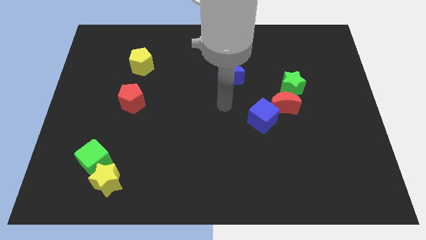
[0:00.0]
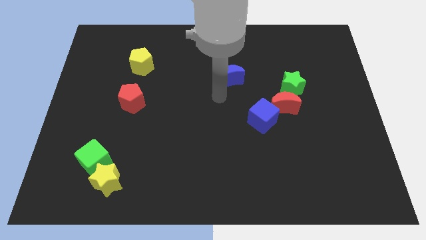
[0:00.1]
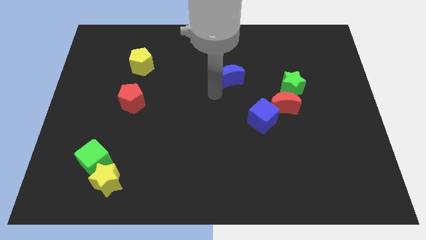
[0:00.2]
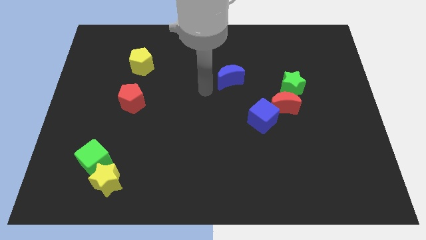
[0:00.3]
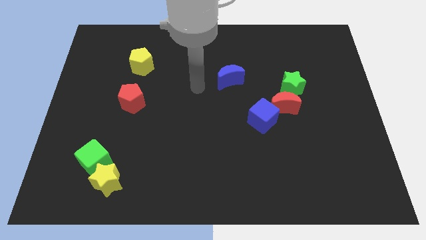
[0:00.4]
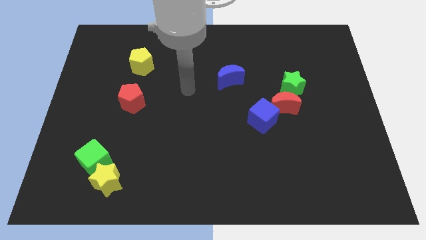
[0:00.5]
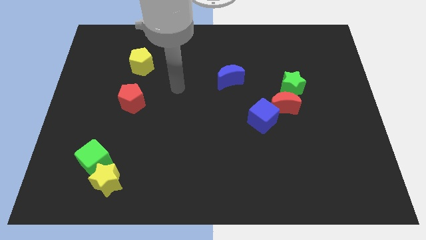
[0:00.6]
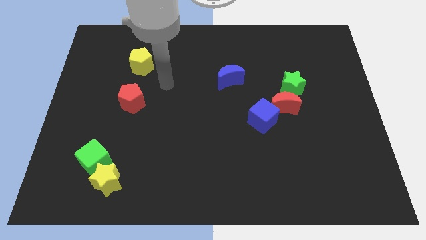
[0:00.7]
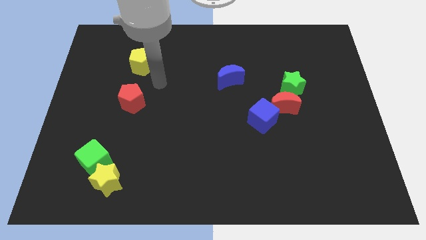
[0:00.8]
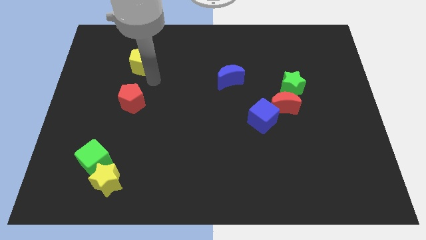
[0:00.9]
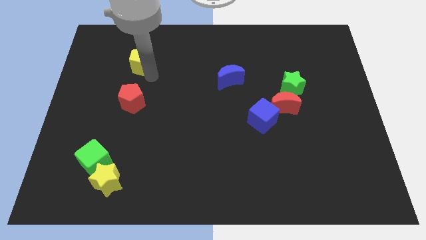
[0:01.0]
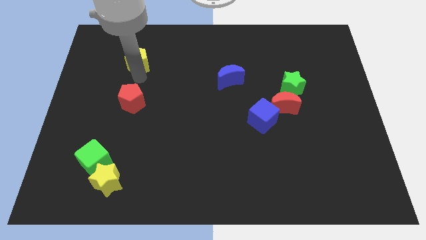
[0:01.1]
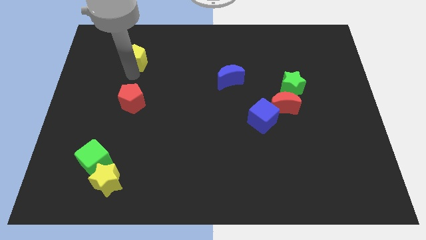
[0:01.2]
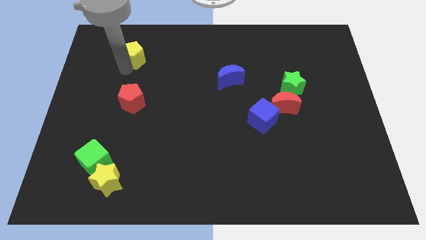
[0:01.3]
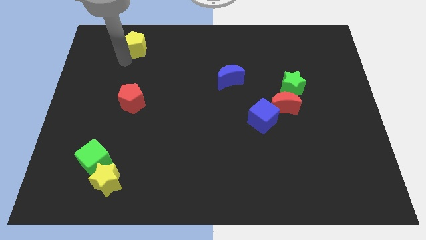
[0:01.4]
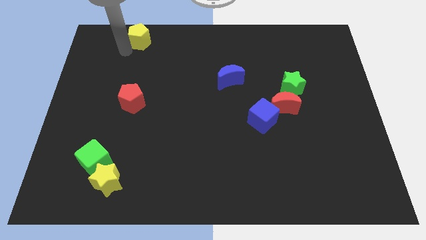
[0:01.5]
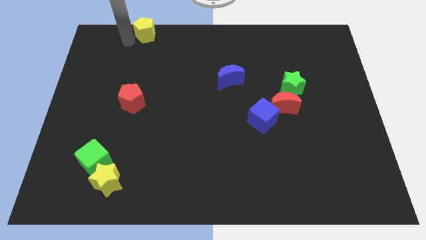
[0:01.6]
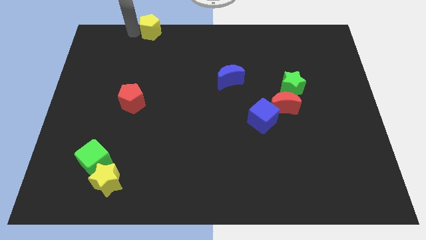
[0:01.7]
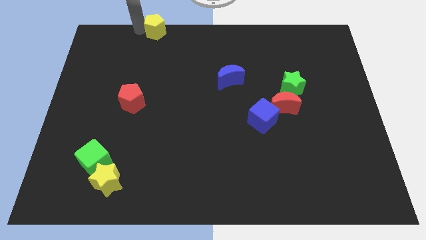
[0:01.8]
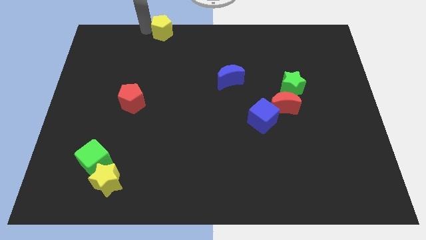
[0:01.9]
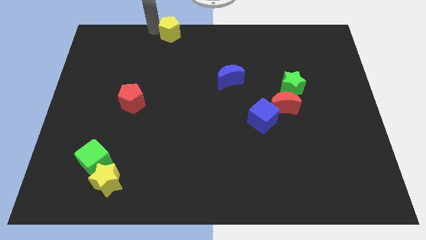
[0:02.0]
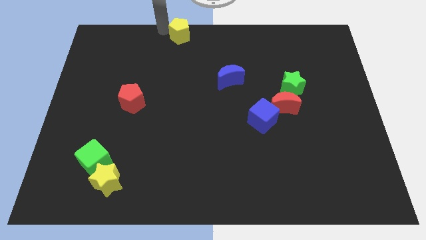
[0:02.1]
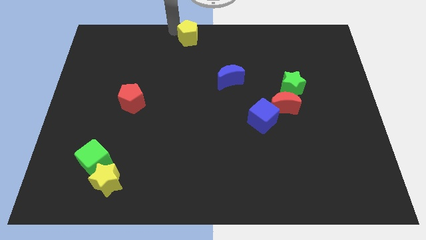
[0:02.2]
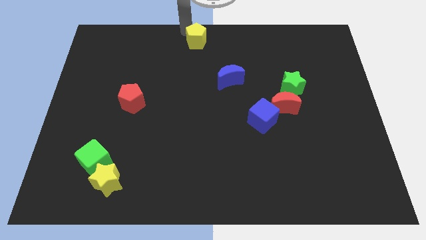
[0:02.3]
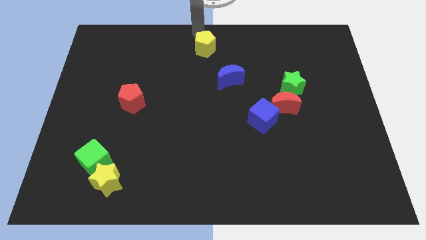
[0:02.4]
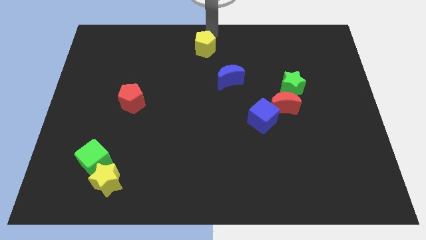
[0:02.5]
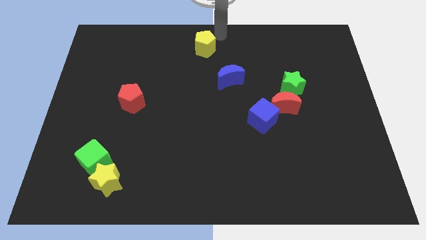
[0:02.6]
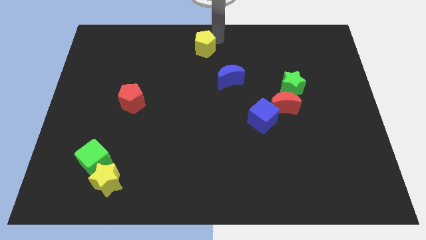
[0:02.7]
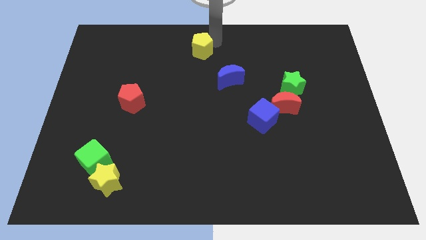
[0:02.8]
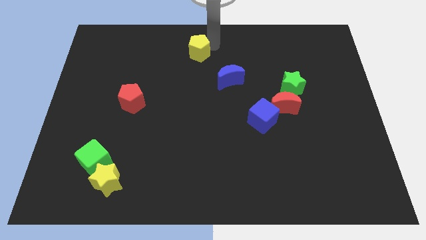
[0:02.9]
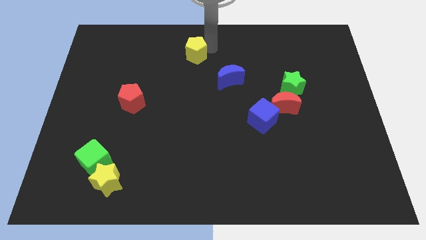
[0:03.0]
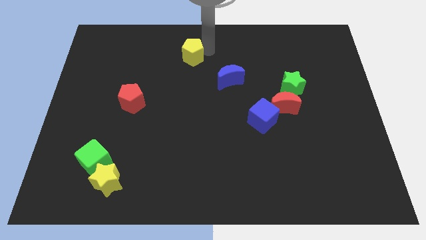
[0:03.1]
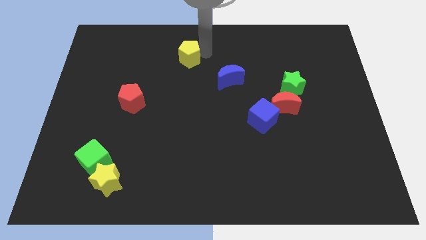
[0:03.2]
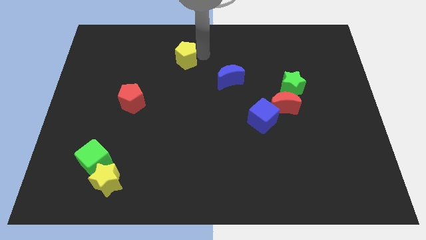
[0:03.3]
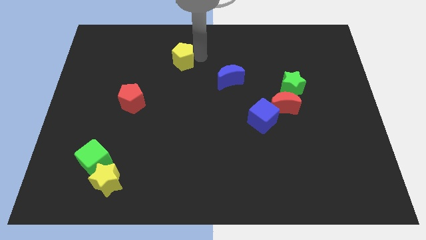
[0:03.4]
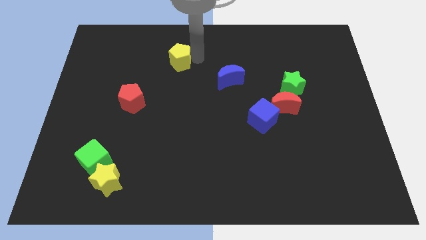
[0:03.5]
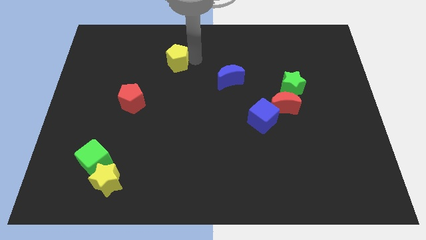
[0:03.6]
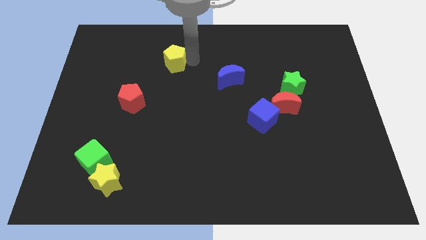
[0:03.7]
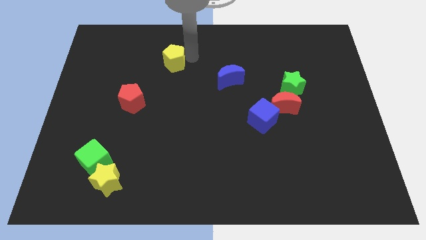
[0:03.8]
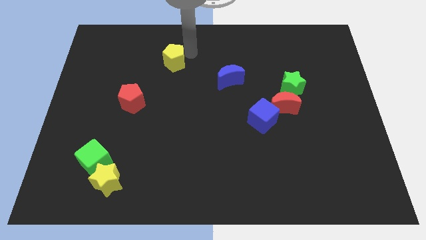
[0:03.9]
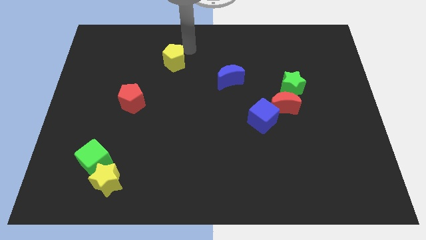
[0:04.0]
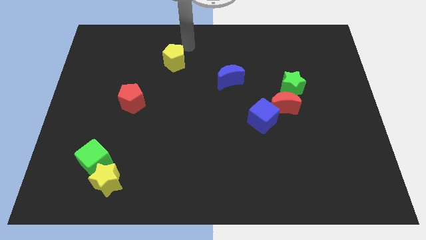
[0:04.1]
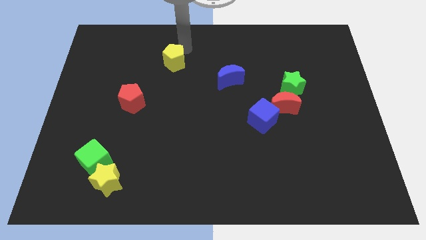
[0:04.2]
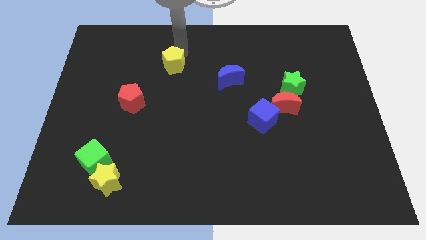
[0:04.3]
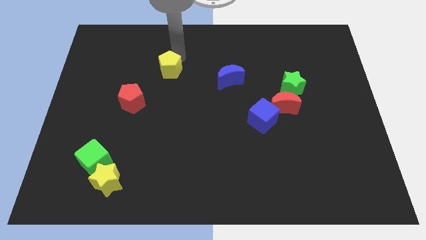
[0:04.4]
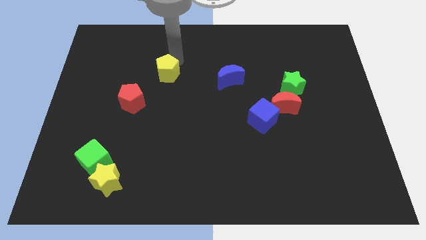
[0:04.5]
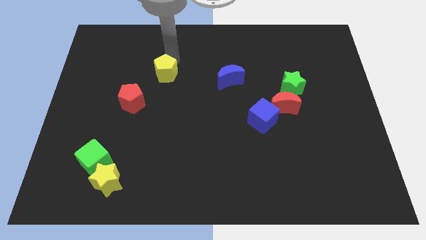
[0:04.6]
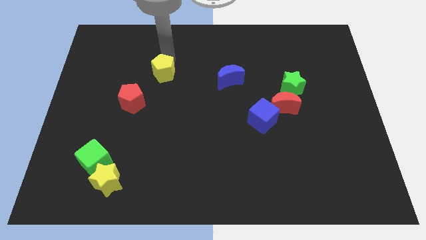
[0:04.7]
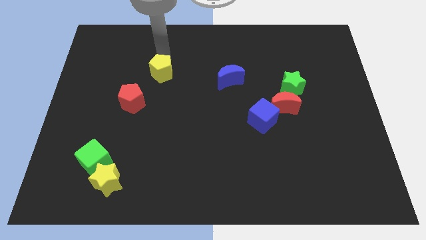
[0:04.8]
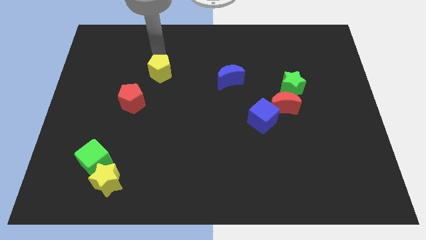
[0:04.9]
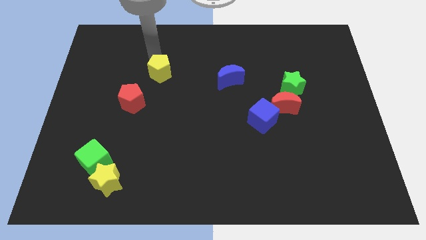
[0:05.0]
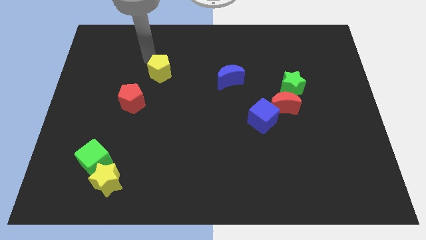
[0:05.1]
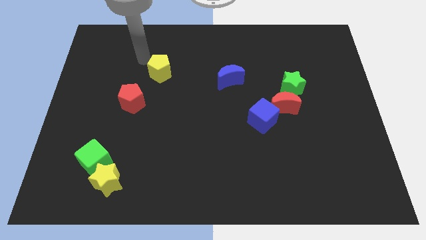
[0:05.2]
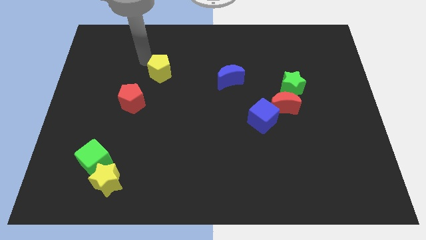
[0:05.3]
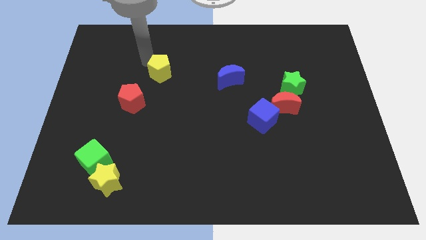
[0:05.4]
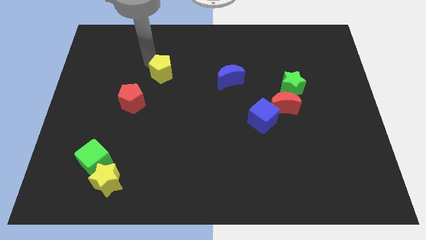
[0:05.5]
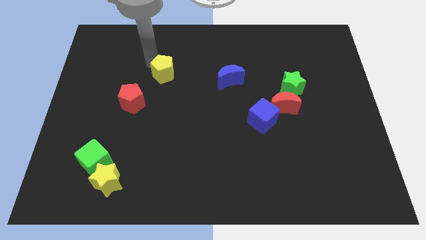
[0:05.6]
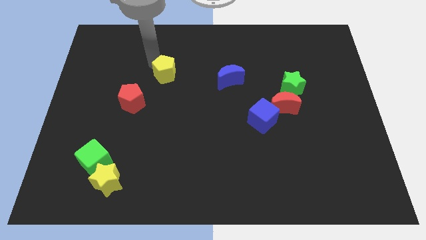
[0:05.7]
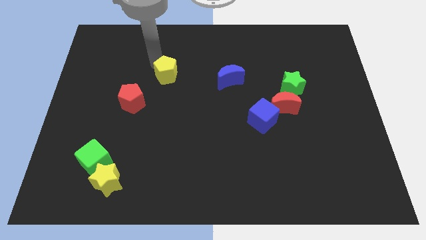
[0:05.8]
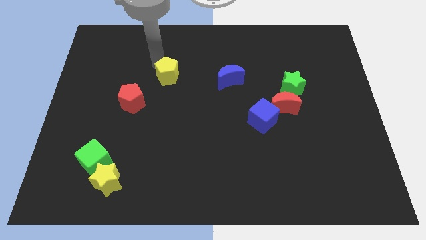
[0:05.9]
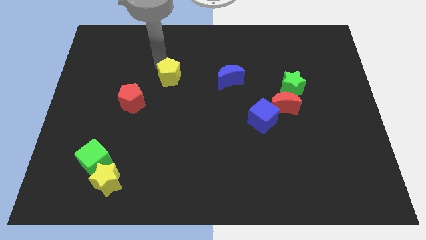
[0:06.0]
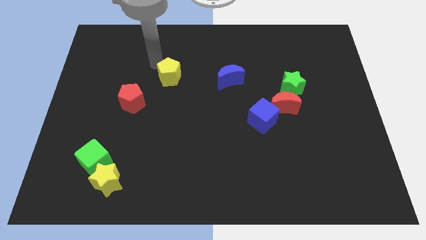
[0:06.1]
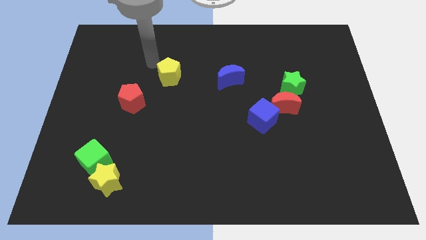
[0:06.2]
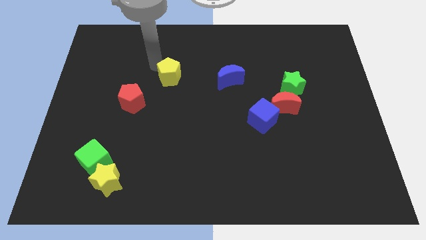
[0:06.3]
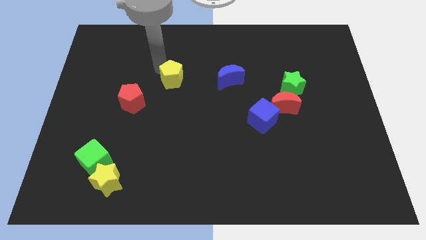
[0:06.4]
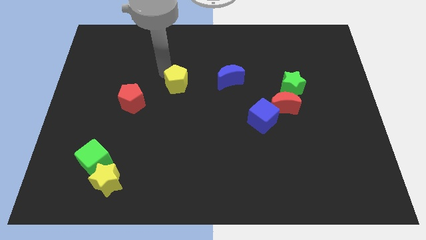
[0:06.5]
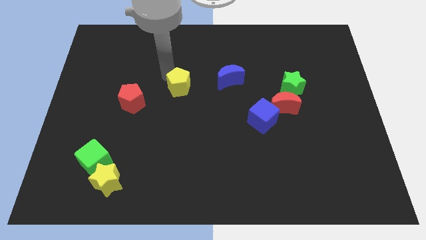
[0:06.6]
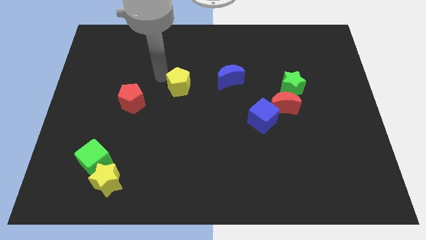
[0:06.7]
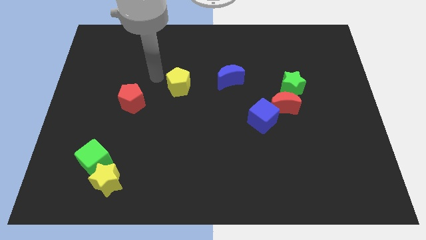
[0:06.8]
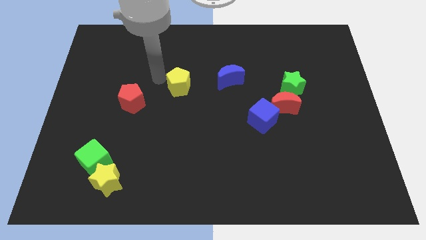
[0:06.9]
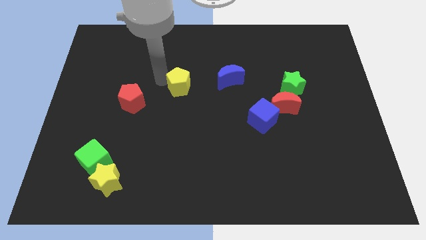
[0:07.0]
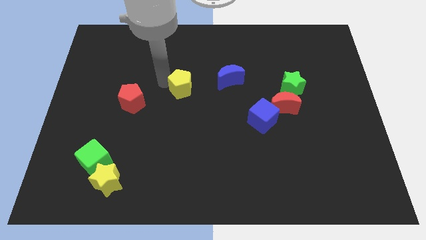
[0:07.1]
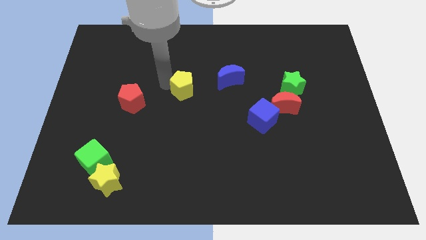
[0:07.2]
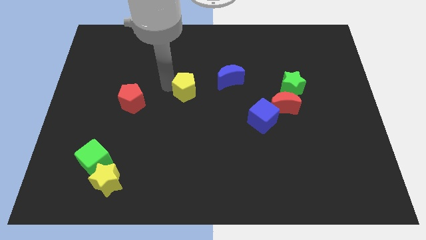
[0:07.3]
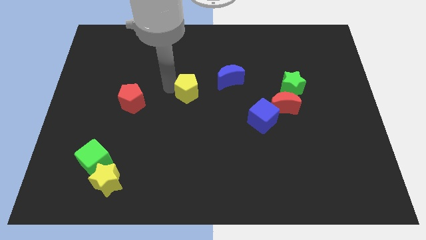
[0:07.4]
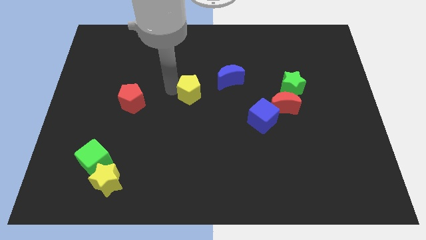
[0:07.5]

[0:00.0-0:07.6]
put the yellow pentagon diagonally down and to the left of the blue moon
